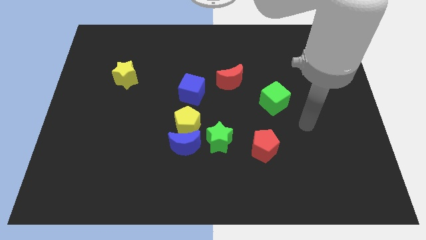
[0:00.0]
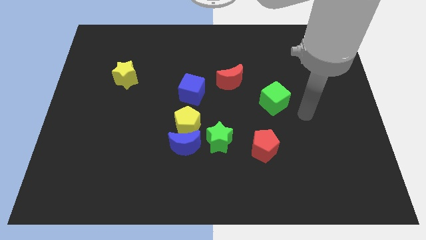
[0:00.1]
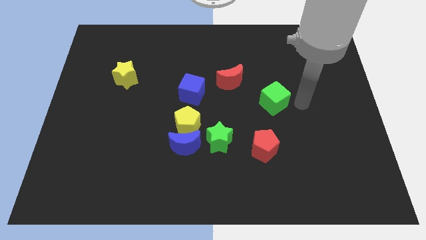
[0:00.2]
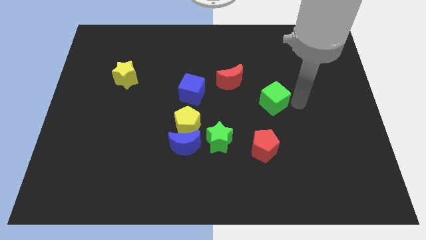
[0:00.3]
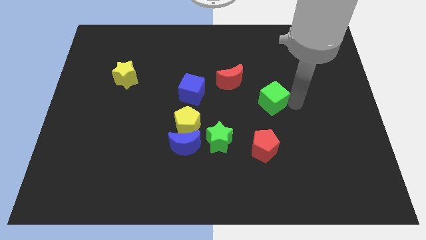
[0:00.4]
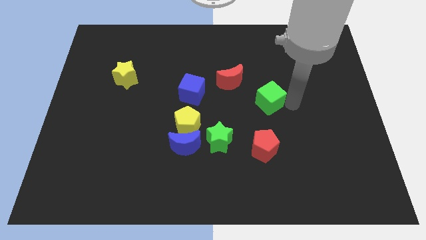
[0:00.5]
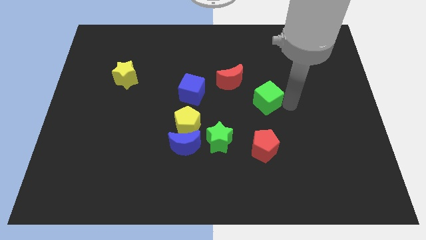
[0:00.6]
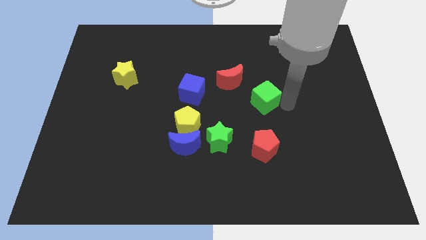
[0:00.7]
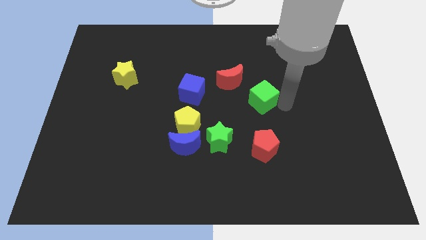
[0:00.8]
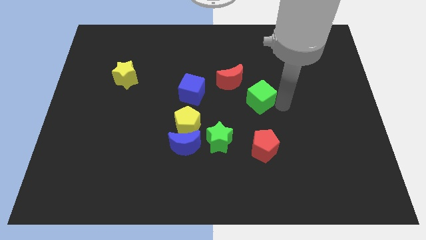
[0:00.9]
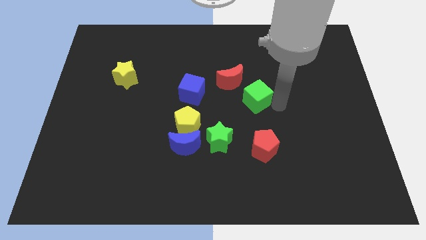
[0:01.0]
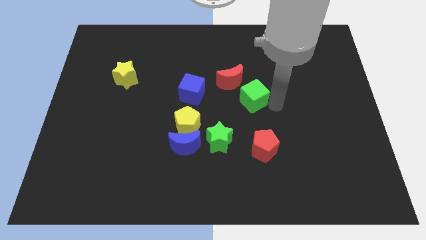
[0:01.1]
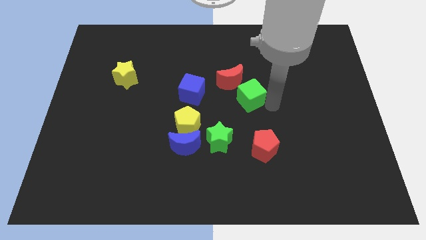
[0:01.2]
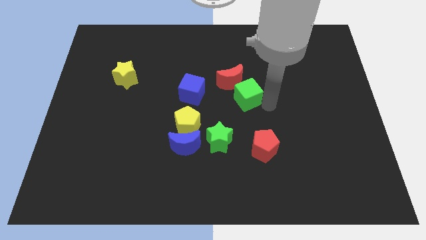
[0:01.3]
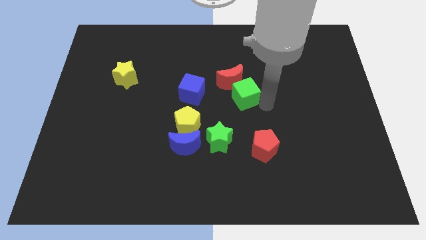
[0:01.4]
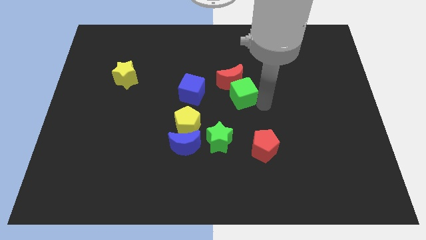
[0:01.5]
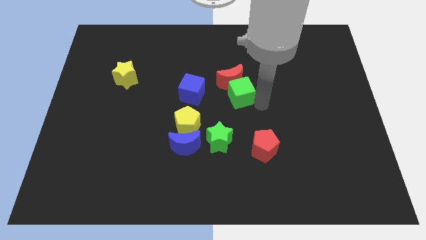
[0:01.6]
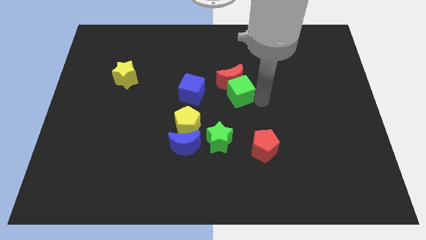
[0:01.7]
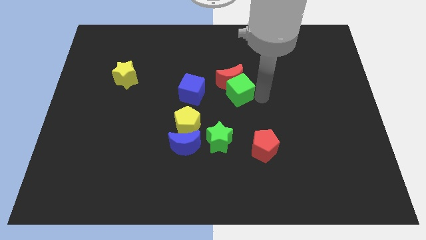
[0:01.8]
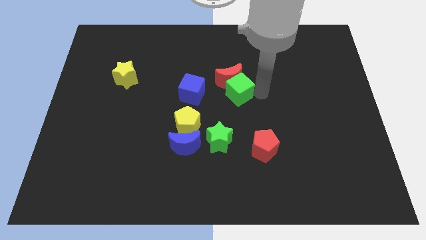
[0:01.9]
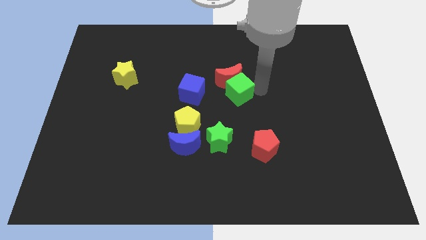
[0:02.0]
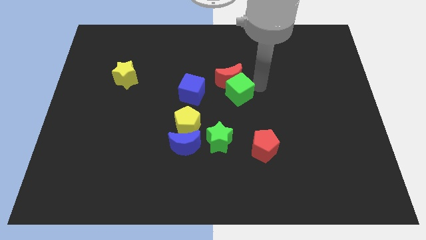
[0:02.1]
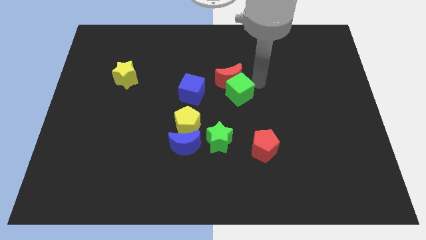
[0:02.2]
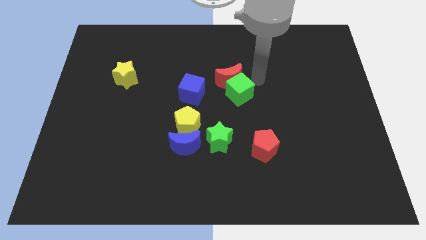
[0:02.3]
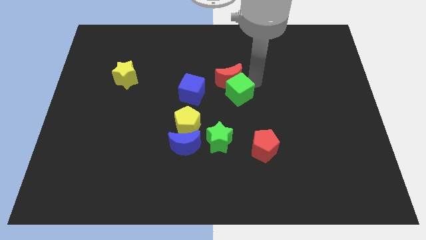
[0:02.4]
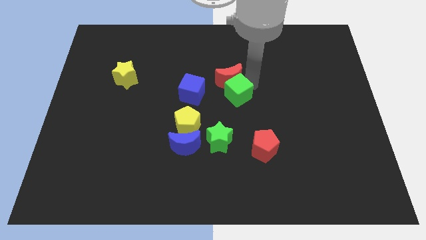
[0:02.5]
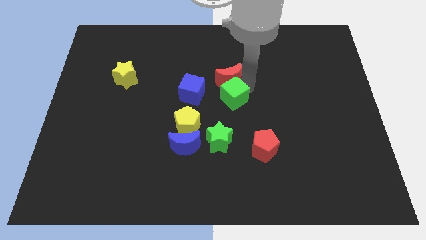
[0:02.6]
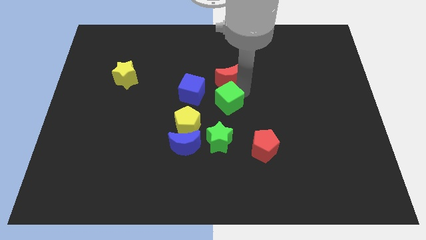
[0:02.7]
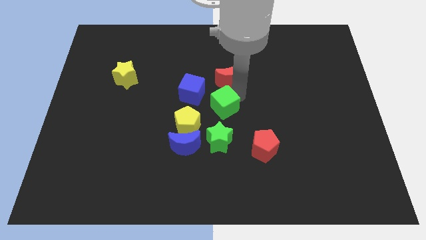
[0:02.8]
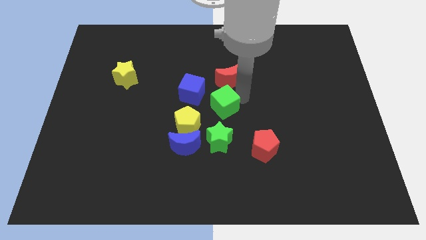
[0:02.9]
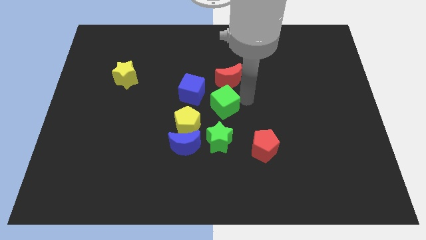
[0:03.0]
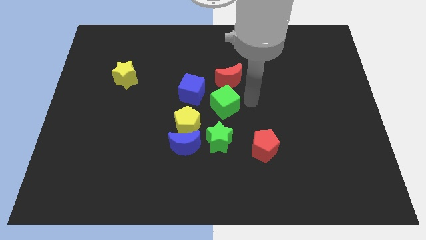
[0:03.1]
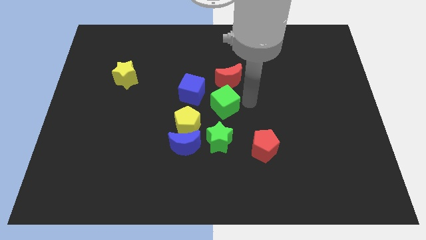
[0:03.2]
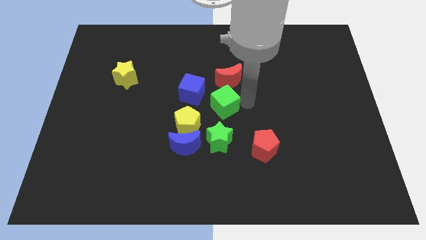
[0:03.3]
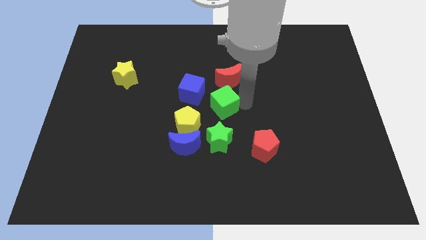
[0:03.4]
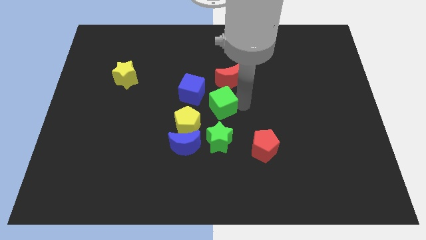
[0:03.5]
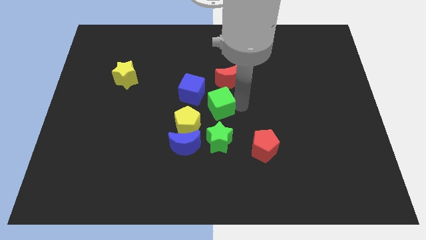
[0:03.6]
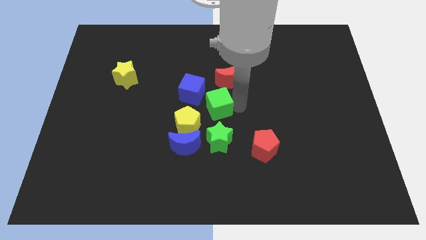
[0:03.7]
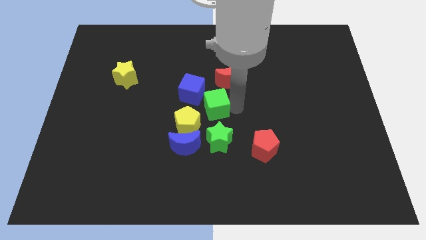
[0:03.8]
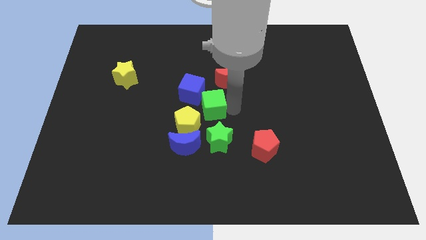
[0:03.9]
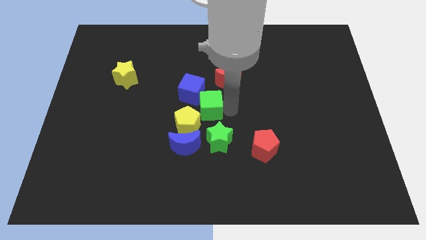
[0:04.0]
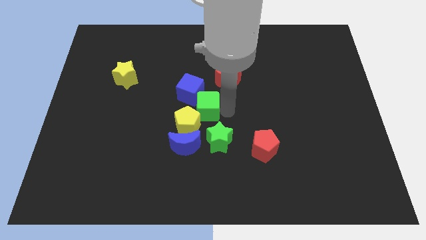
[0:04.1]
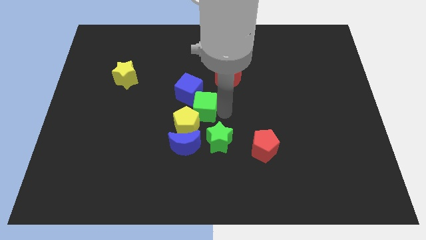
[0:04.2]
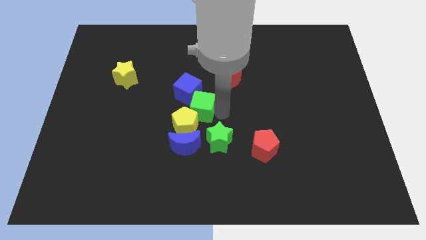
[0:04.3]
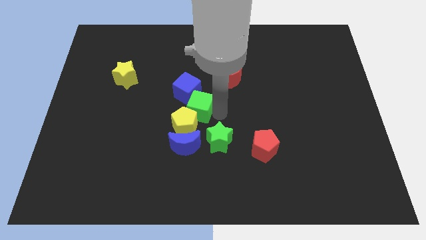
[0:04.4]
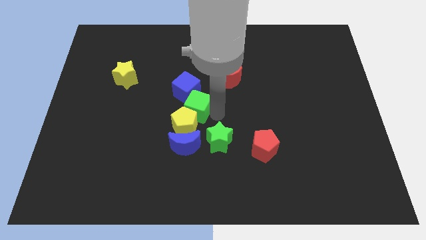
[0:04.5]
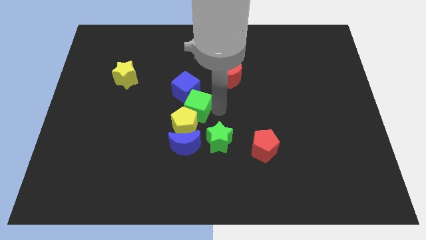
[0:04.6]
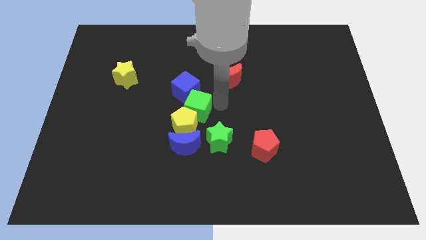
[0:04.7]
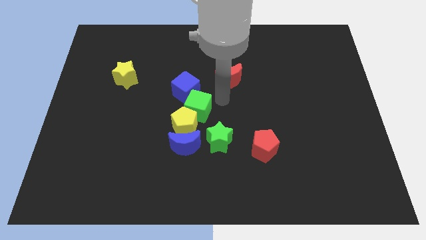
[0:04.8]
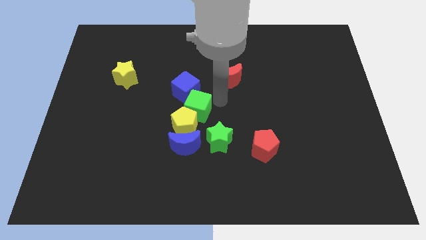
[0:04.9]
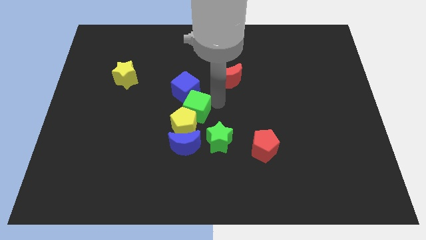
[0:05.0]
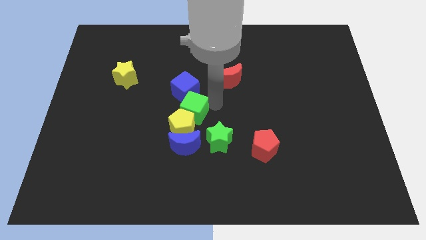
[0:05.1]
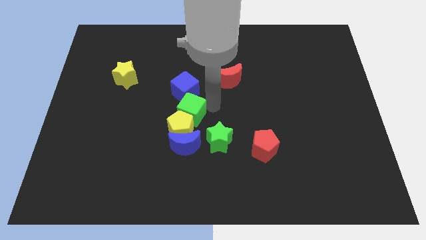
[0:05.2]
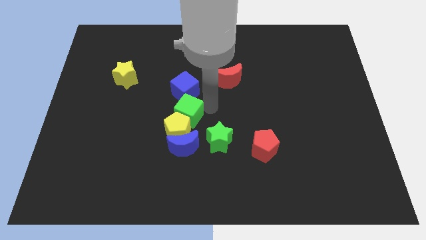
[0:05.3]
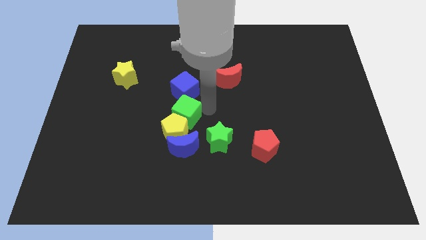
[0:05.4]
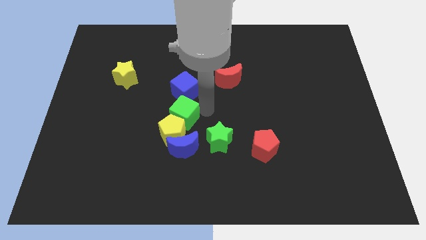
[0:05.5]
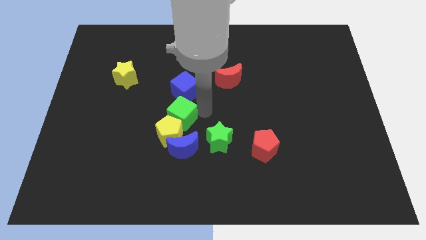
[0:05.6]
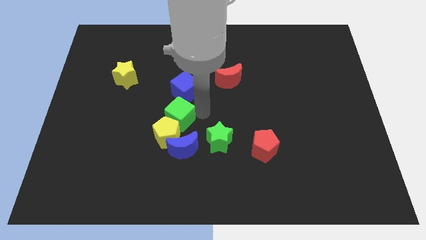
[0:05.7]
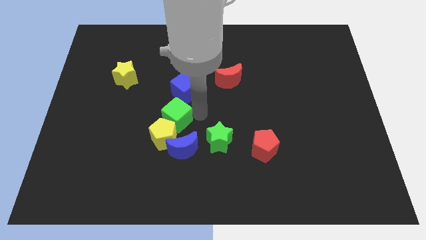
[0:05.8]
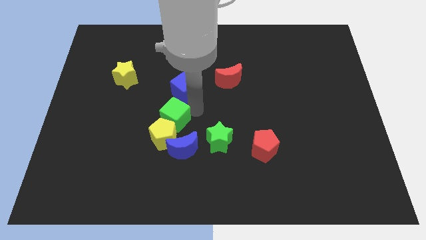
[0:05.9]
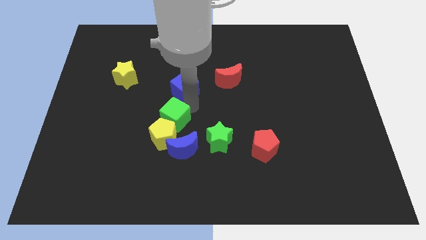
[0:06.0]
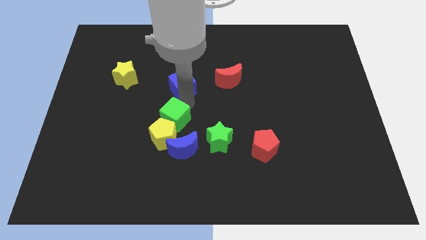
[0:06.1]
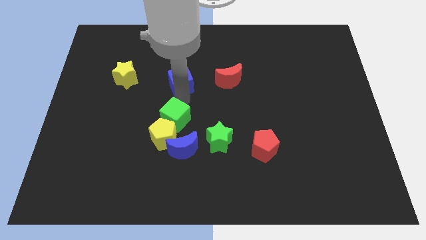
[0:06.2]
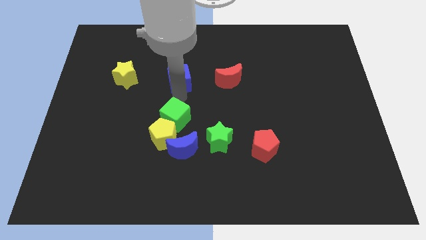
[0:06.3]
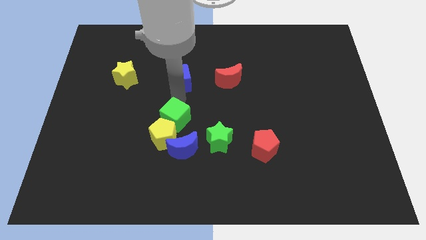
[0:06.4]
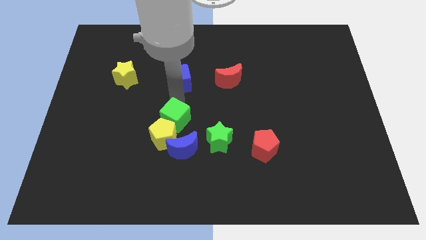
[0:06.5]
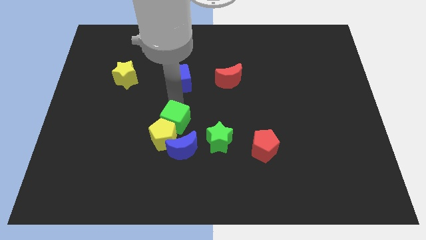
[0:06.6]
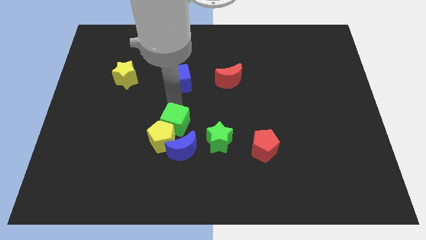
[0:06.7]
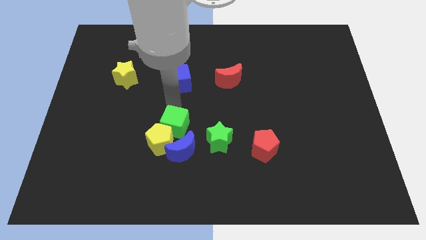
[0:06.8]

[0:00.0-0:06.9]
move the green cube to the left side of the green star
